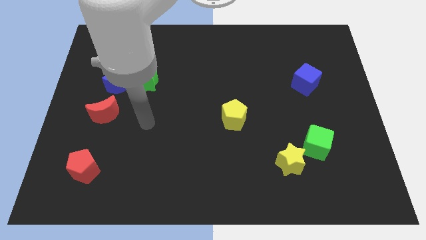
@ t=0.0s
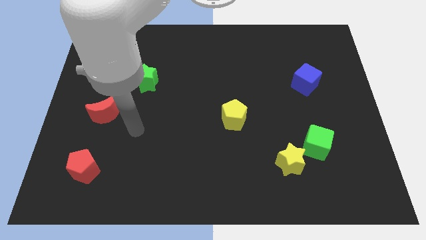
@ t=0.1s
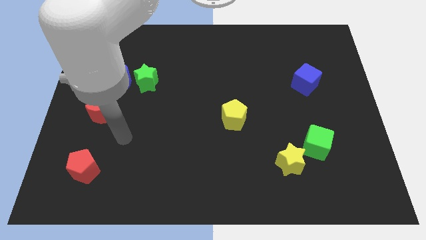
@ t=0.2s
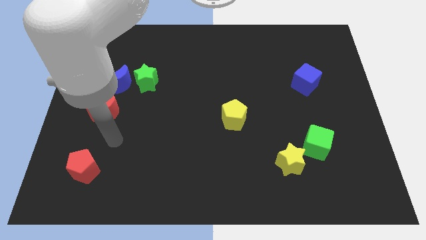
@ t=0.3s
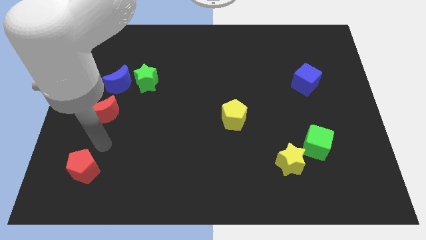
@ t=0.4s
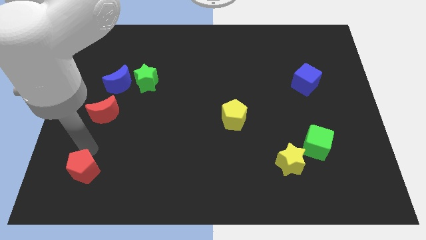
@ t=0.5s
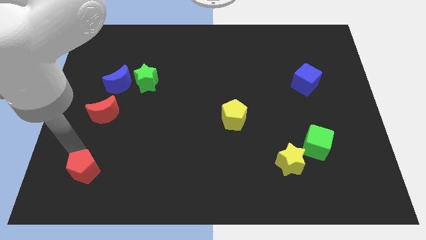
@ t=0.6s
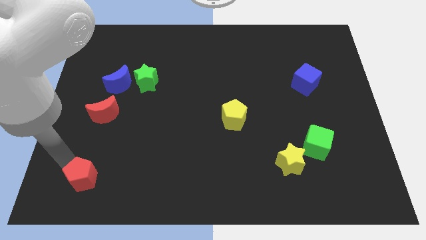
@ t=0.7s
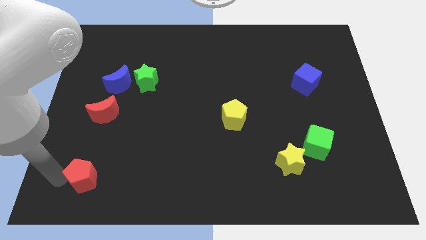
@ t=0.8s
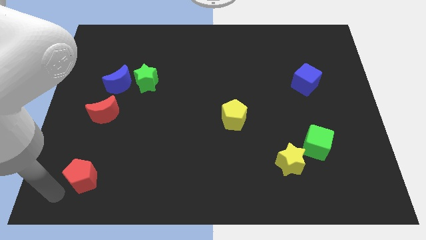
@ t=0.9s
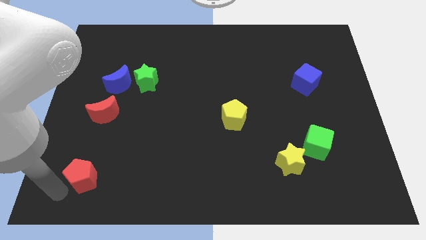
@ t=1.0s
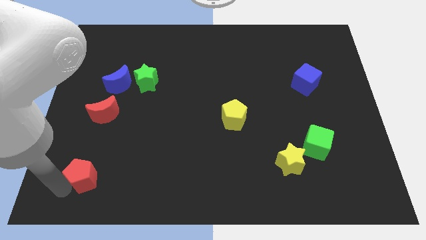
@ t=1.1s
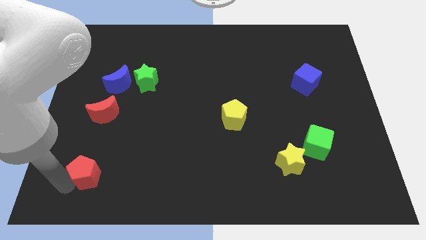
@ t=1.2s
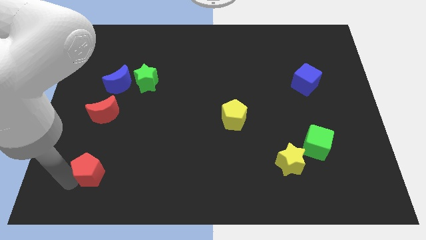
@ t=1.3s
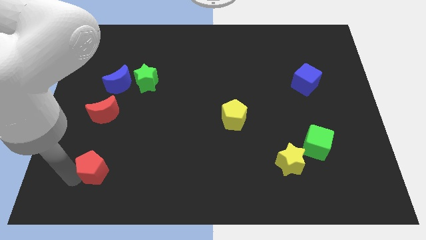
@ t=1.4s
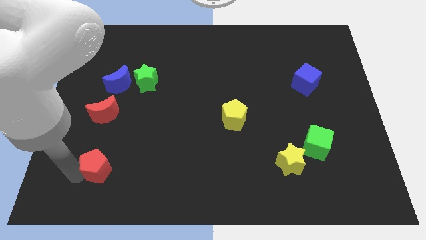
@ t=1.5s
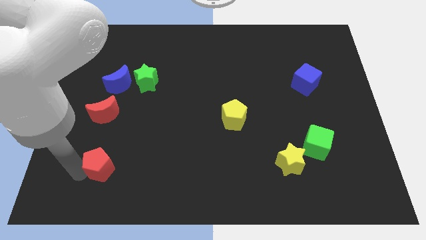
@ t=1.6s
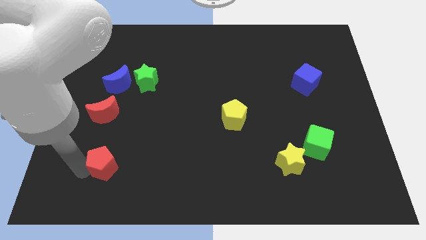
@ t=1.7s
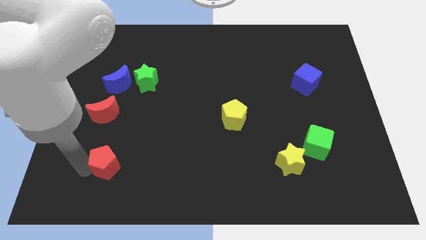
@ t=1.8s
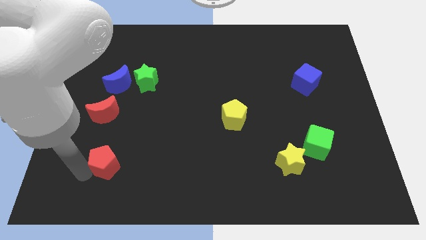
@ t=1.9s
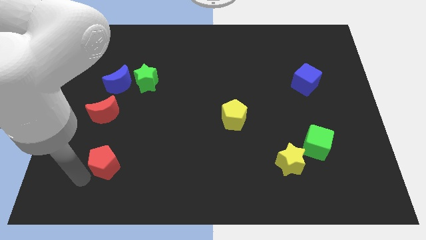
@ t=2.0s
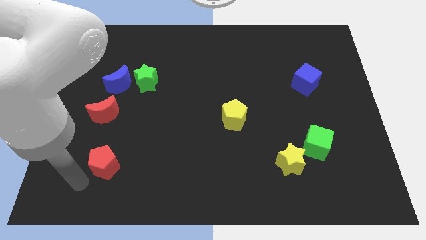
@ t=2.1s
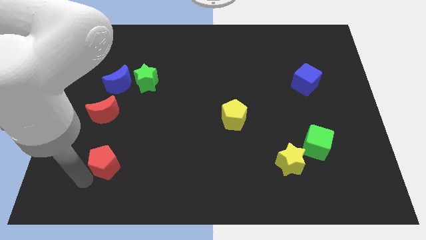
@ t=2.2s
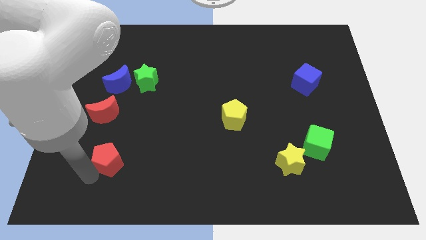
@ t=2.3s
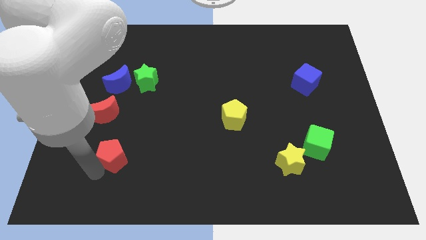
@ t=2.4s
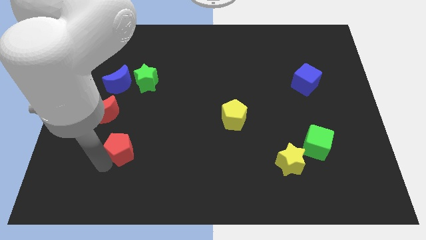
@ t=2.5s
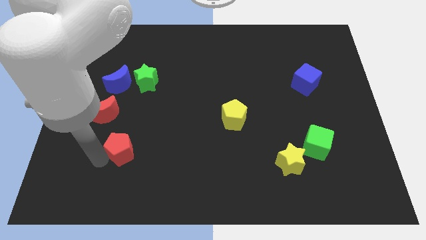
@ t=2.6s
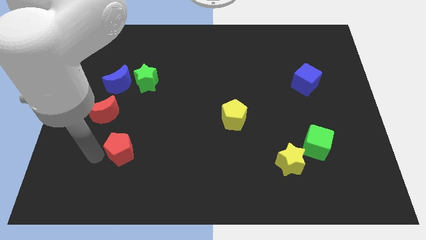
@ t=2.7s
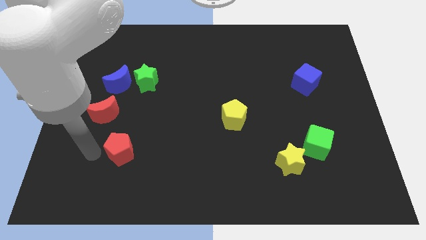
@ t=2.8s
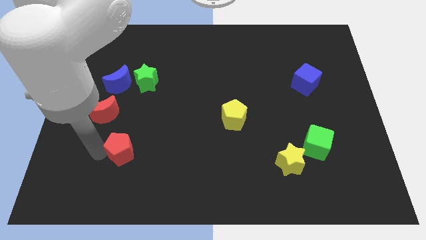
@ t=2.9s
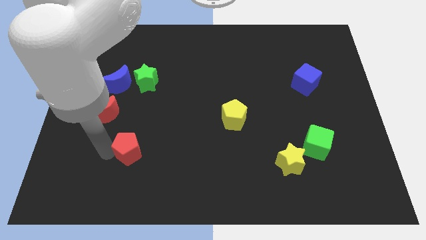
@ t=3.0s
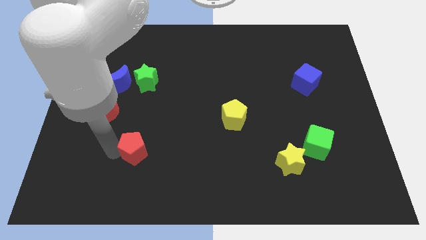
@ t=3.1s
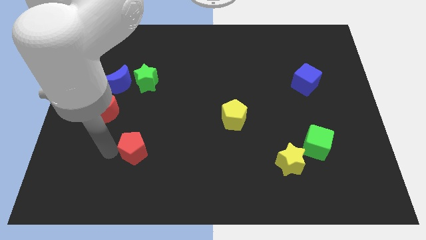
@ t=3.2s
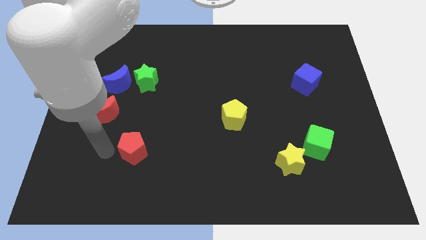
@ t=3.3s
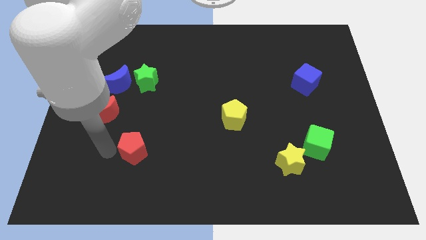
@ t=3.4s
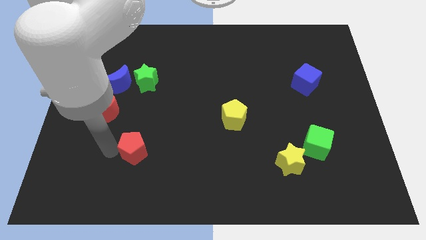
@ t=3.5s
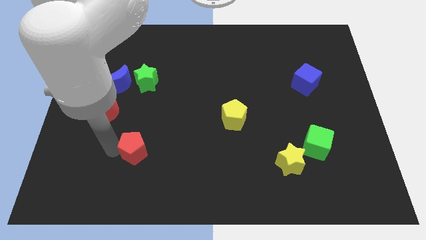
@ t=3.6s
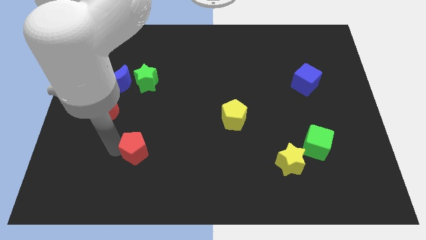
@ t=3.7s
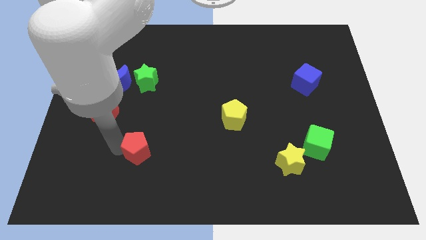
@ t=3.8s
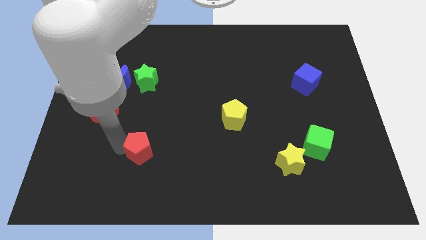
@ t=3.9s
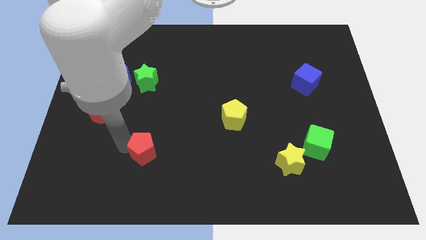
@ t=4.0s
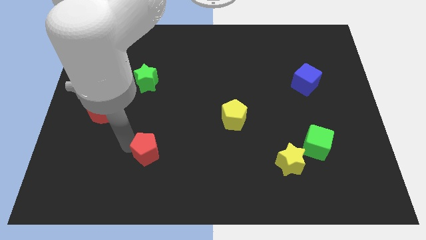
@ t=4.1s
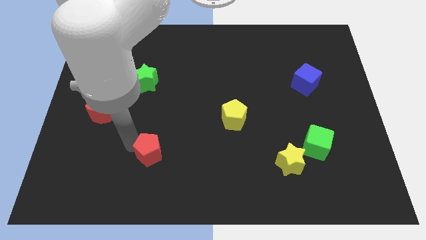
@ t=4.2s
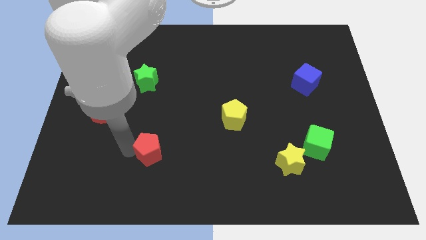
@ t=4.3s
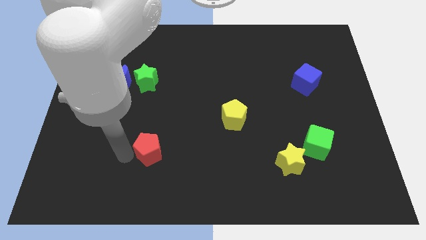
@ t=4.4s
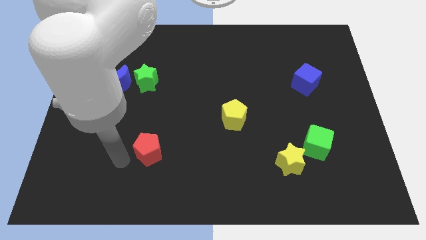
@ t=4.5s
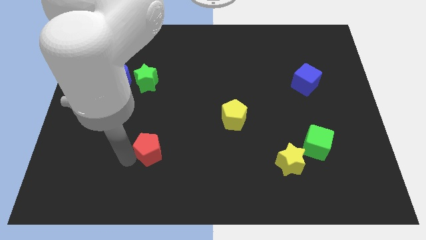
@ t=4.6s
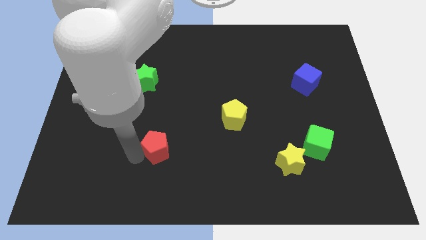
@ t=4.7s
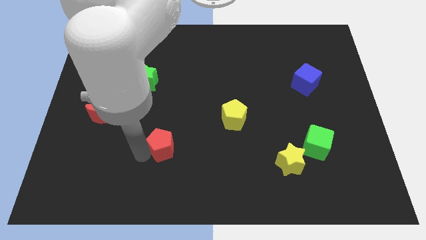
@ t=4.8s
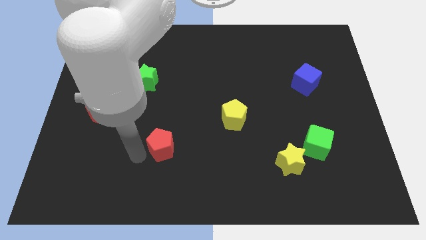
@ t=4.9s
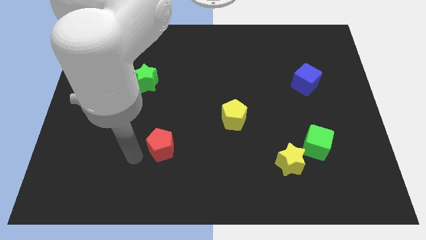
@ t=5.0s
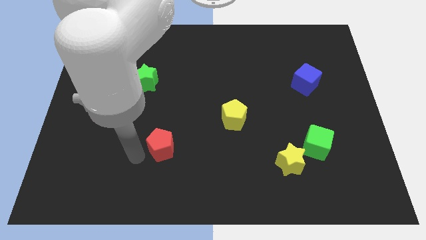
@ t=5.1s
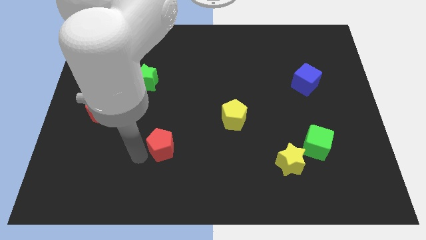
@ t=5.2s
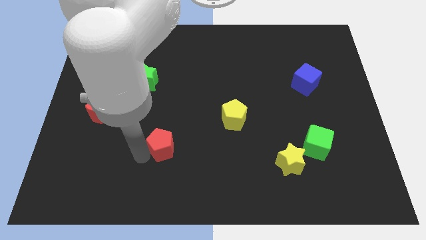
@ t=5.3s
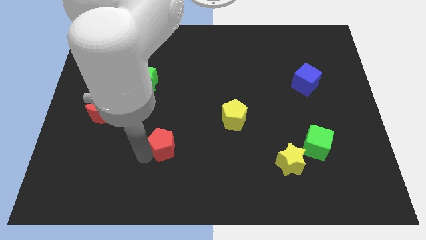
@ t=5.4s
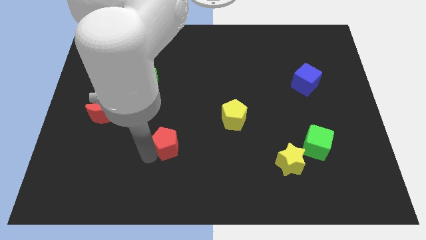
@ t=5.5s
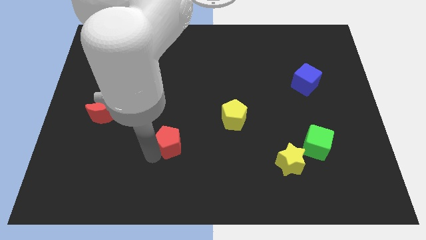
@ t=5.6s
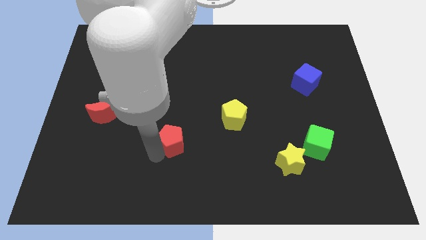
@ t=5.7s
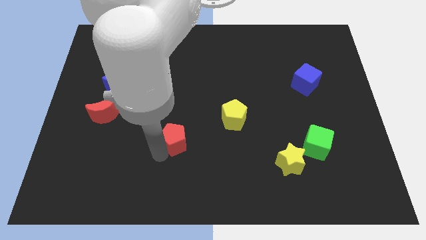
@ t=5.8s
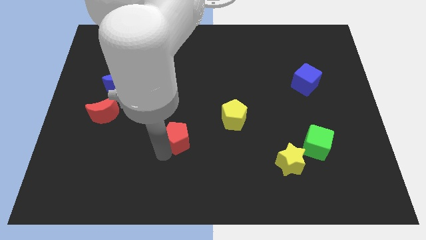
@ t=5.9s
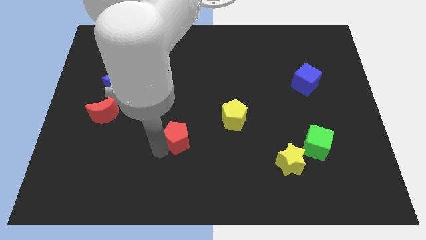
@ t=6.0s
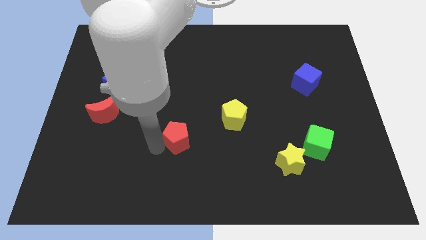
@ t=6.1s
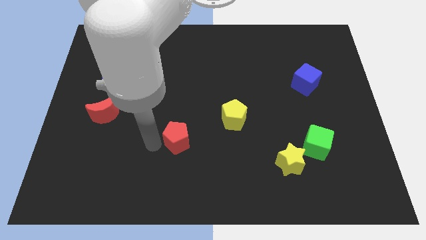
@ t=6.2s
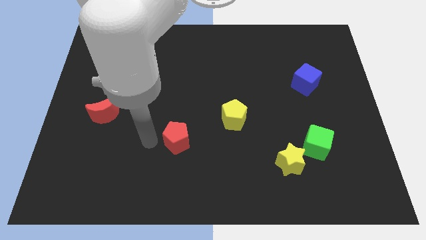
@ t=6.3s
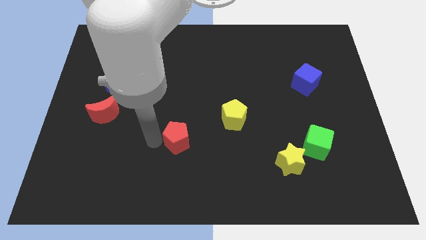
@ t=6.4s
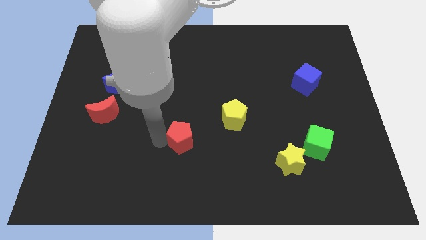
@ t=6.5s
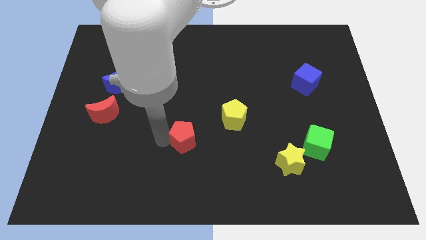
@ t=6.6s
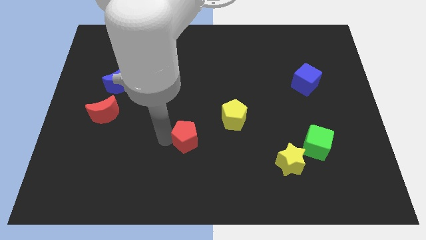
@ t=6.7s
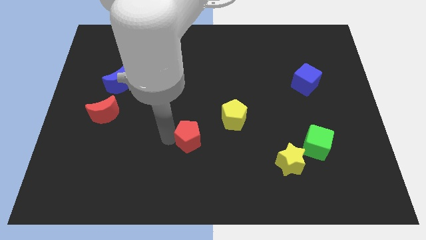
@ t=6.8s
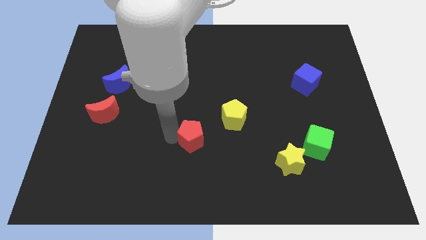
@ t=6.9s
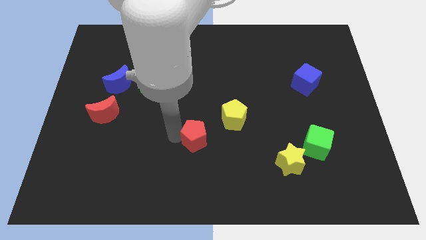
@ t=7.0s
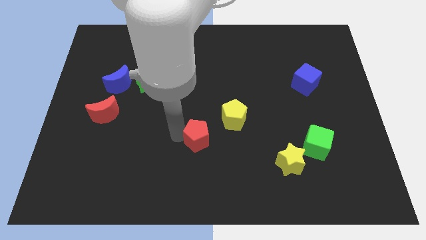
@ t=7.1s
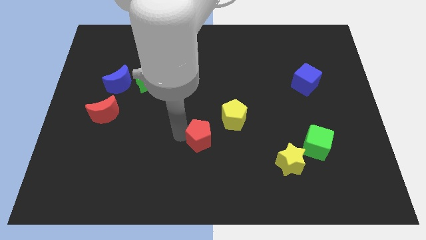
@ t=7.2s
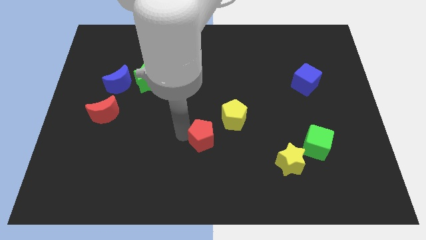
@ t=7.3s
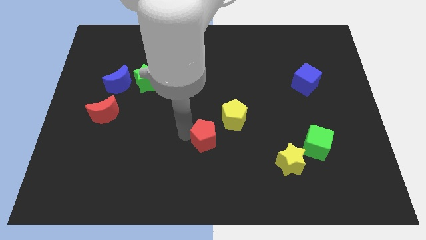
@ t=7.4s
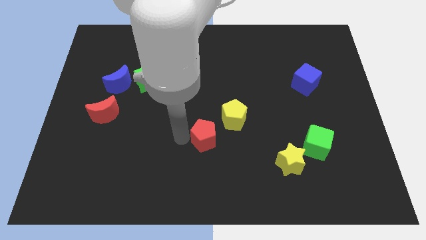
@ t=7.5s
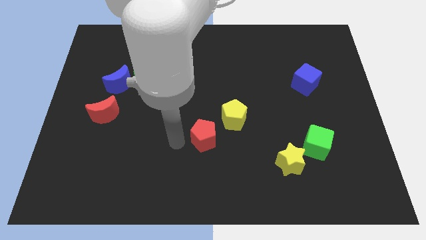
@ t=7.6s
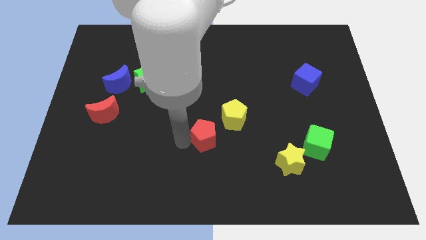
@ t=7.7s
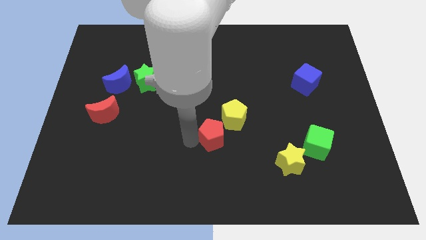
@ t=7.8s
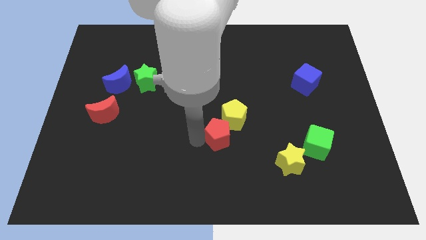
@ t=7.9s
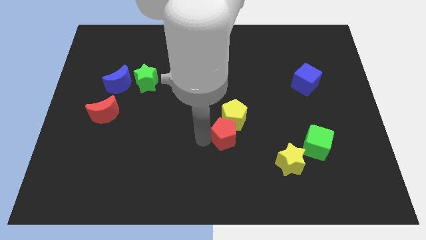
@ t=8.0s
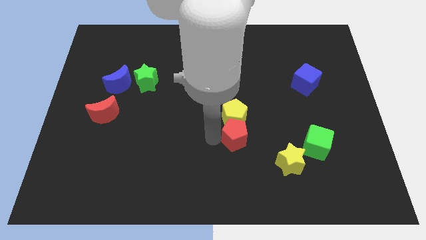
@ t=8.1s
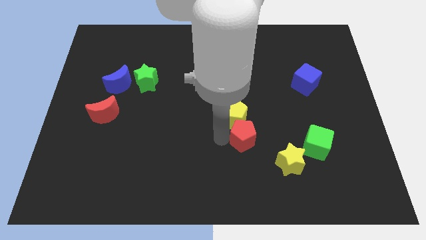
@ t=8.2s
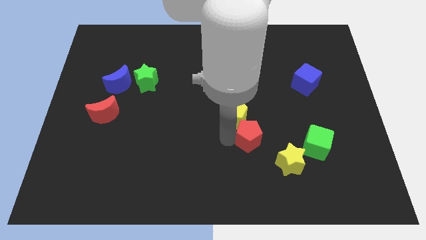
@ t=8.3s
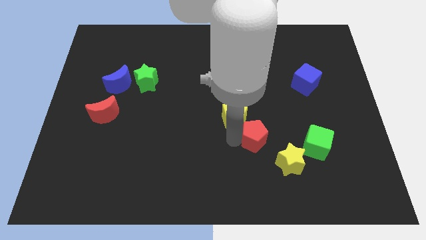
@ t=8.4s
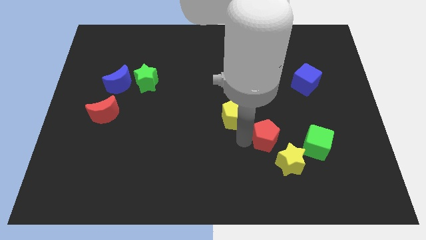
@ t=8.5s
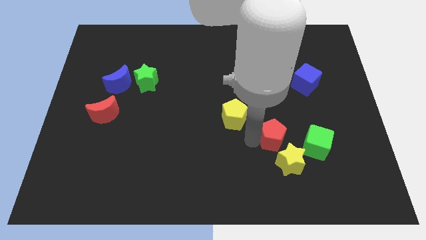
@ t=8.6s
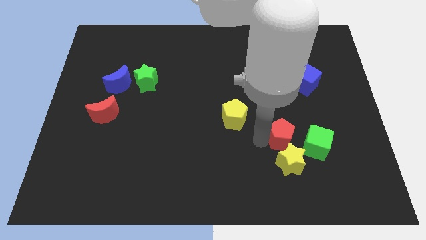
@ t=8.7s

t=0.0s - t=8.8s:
push the red pentagon to the top left side of the green cube
